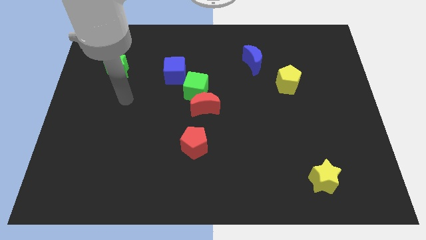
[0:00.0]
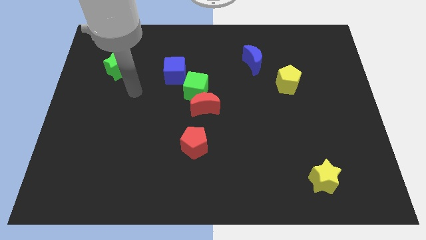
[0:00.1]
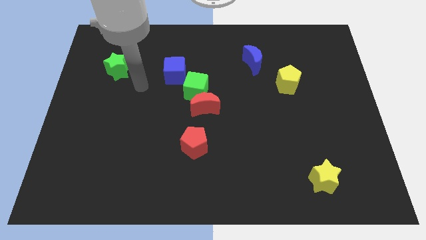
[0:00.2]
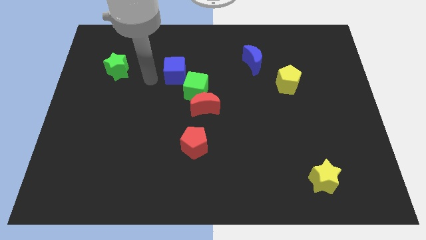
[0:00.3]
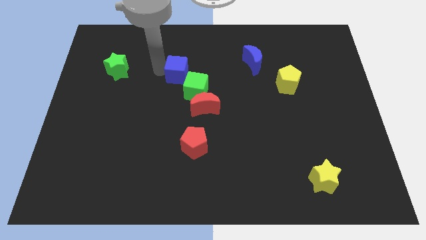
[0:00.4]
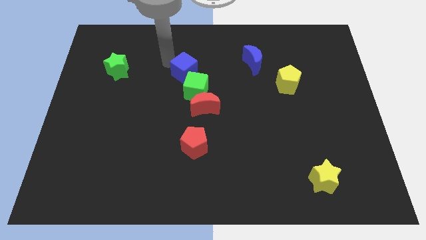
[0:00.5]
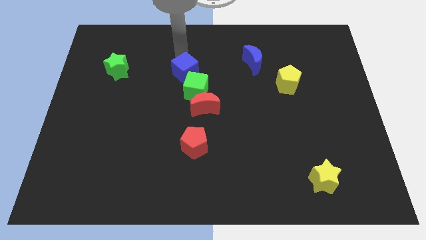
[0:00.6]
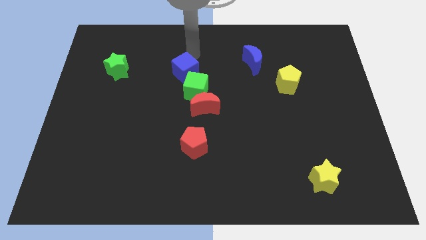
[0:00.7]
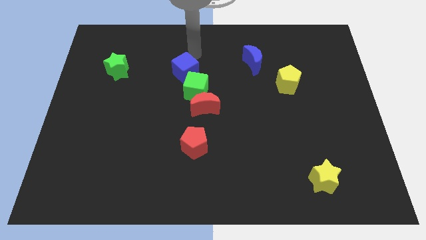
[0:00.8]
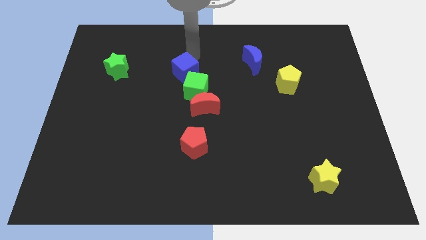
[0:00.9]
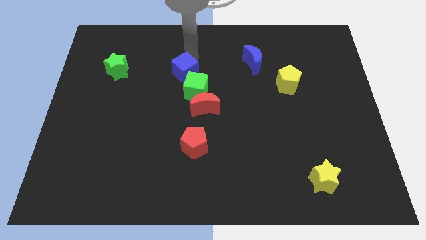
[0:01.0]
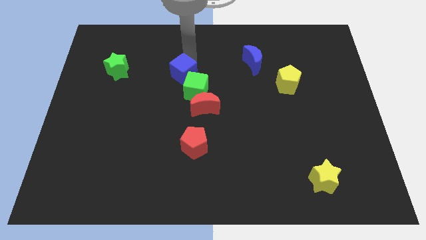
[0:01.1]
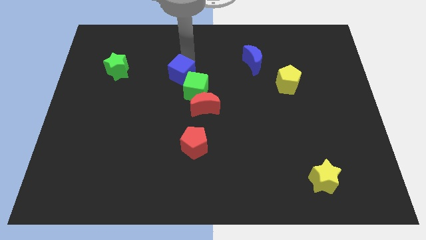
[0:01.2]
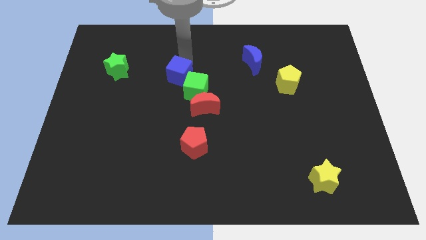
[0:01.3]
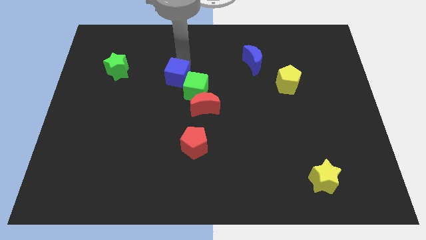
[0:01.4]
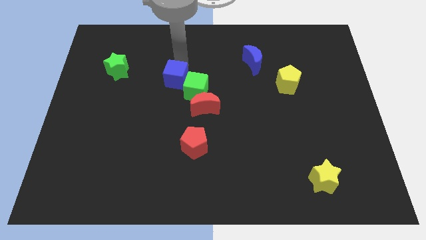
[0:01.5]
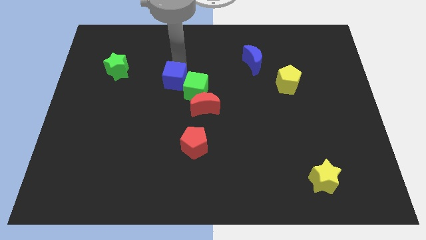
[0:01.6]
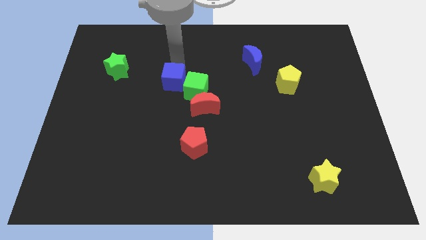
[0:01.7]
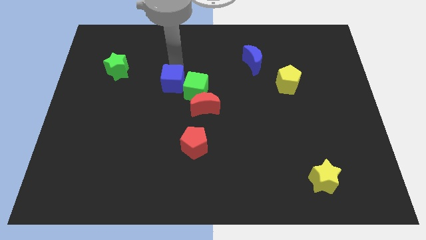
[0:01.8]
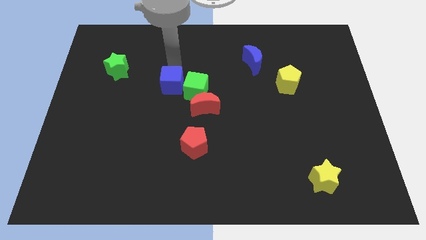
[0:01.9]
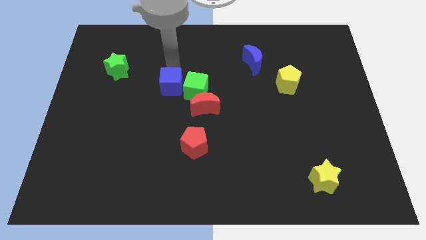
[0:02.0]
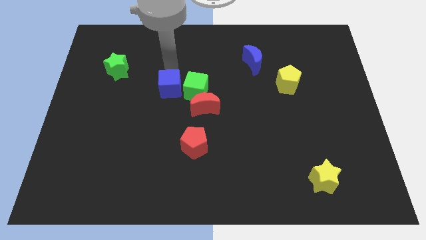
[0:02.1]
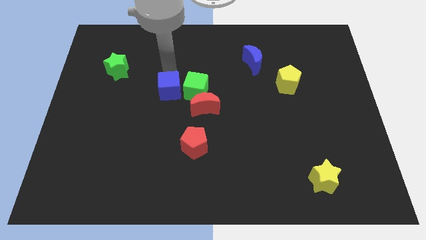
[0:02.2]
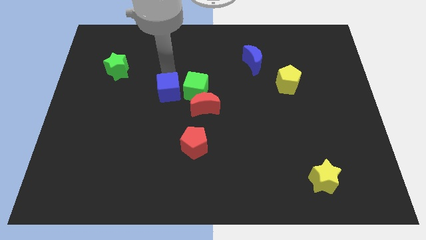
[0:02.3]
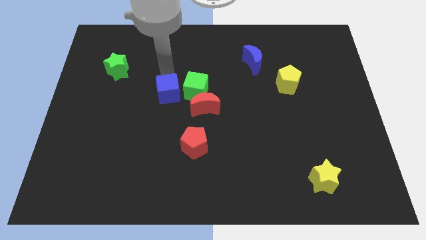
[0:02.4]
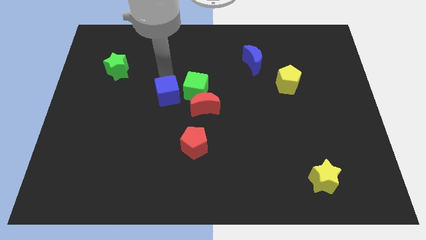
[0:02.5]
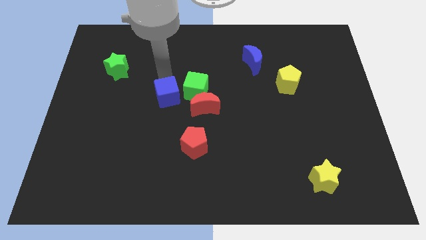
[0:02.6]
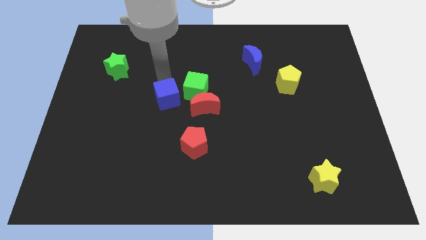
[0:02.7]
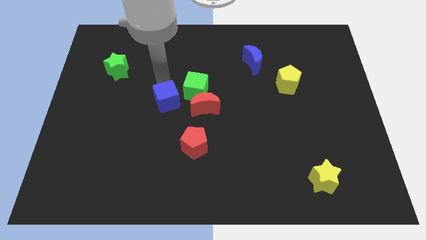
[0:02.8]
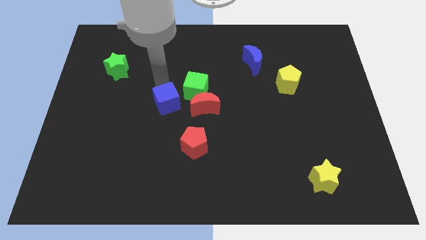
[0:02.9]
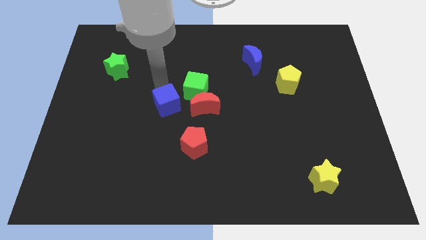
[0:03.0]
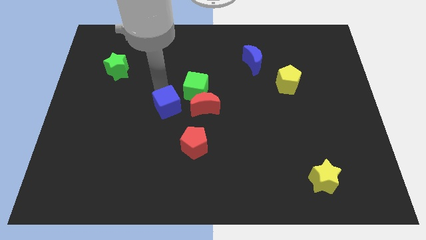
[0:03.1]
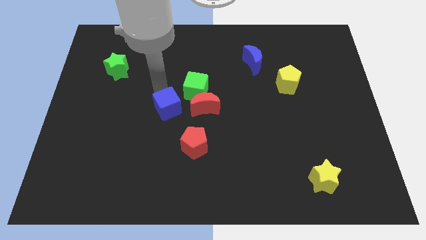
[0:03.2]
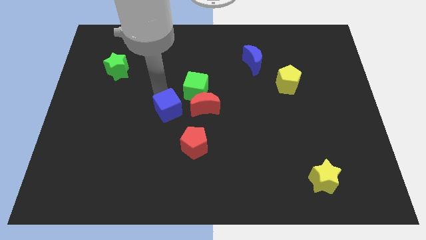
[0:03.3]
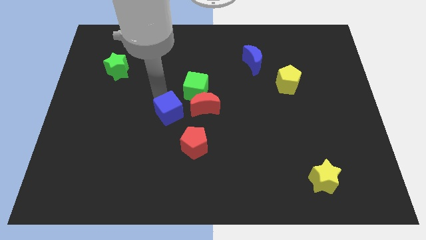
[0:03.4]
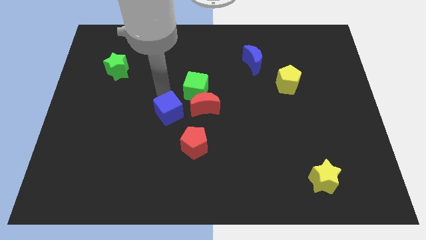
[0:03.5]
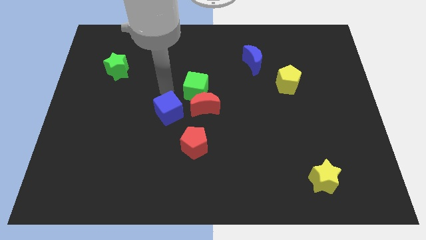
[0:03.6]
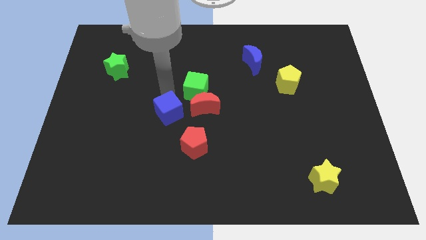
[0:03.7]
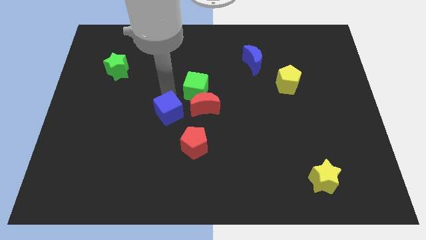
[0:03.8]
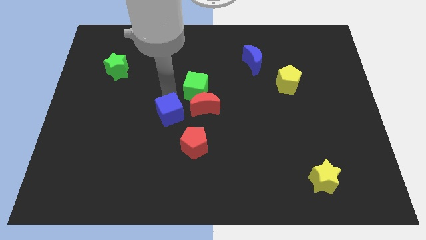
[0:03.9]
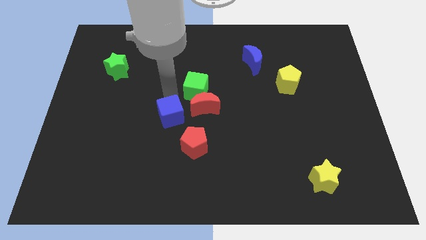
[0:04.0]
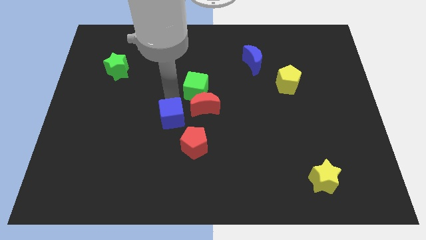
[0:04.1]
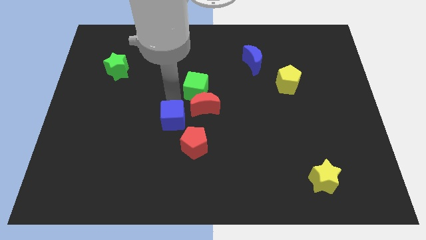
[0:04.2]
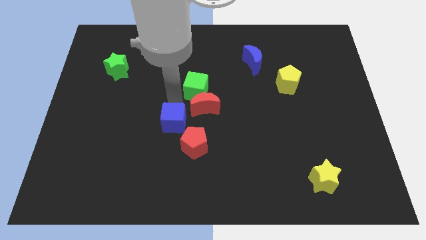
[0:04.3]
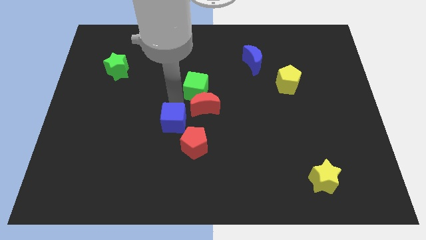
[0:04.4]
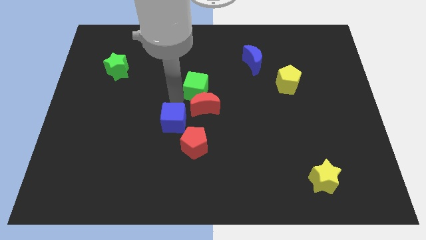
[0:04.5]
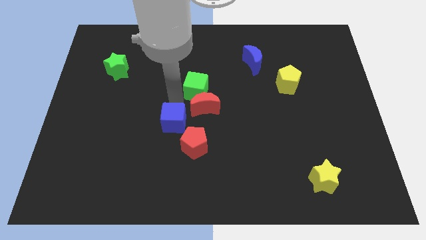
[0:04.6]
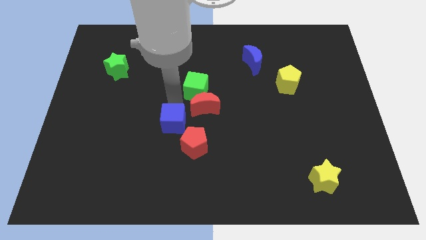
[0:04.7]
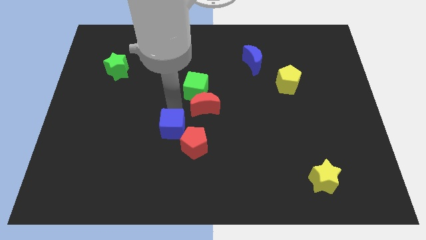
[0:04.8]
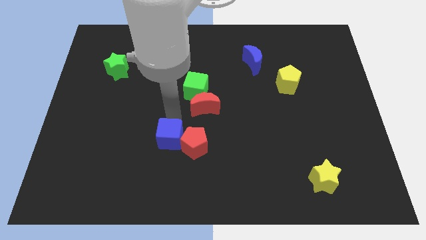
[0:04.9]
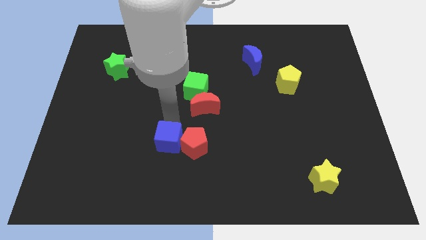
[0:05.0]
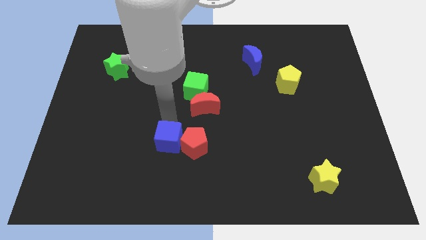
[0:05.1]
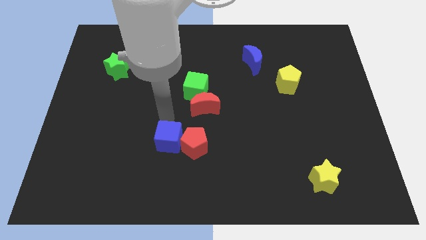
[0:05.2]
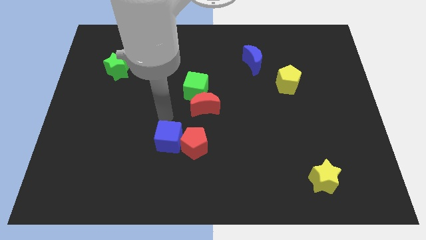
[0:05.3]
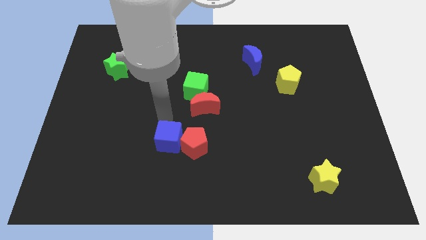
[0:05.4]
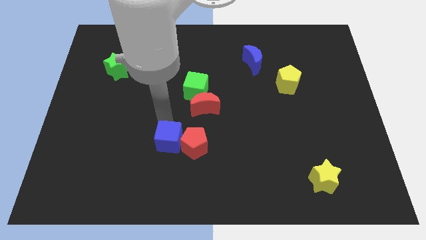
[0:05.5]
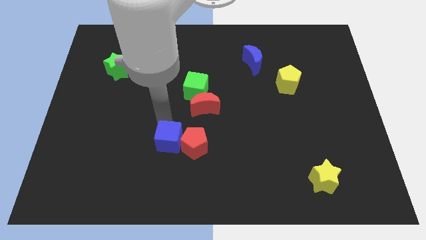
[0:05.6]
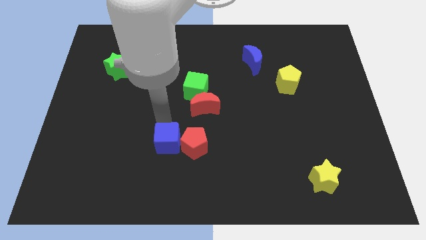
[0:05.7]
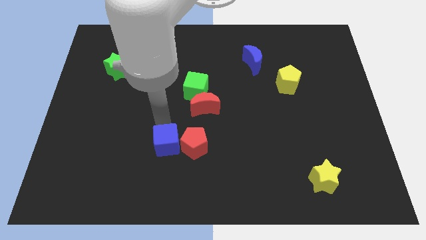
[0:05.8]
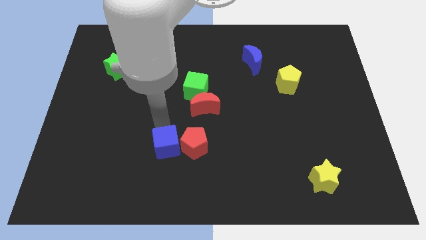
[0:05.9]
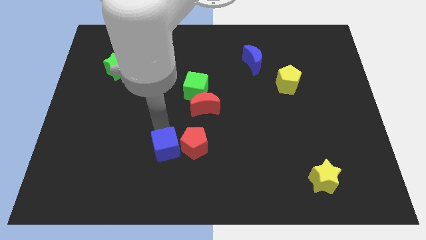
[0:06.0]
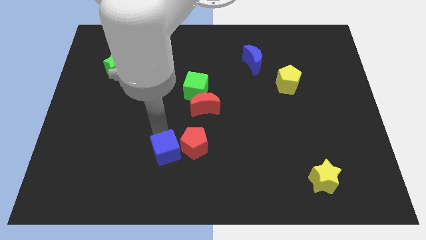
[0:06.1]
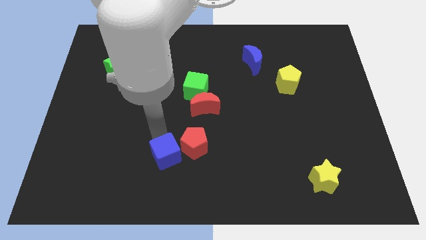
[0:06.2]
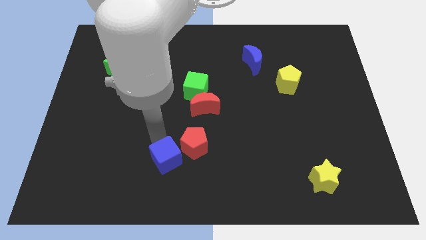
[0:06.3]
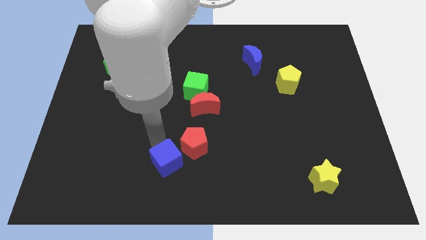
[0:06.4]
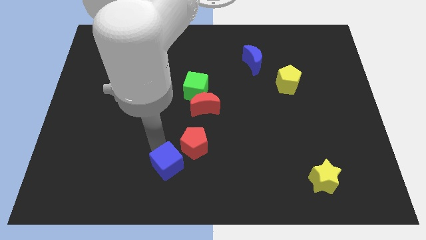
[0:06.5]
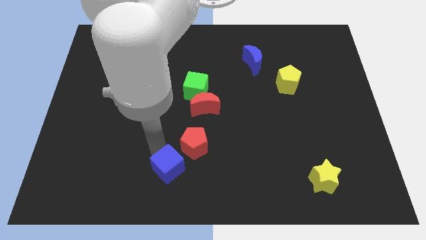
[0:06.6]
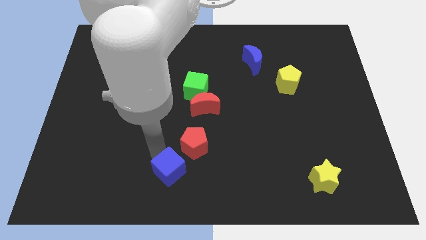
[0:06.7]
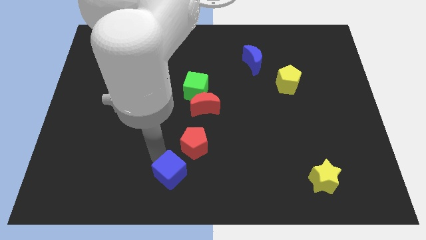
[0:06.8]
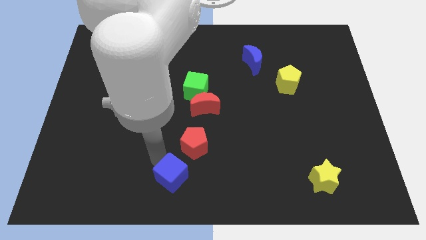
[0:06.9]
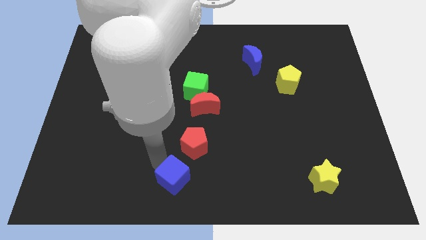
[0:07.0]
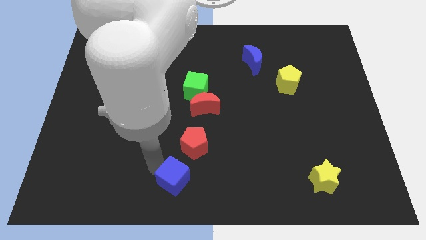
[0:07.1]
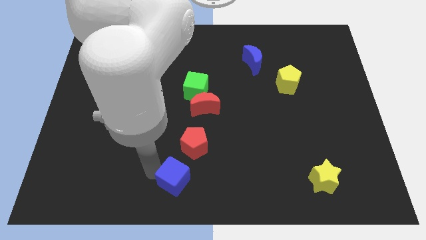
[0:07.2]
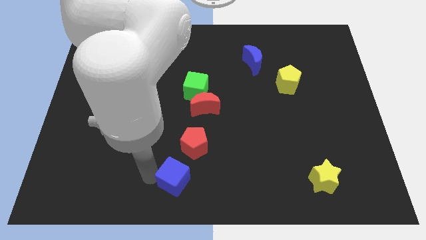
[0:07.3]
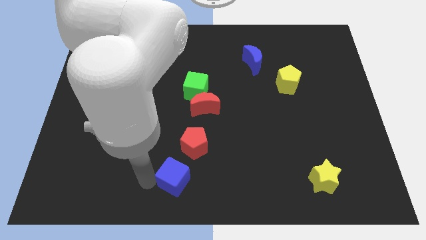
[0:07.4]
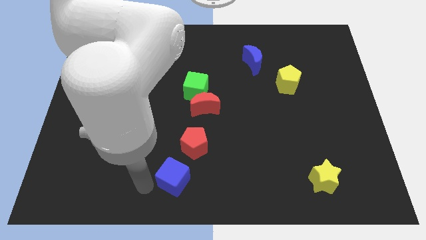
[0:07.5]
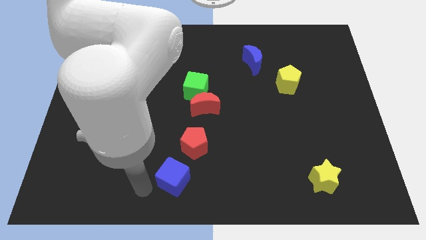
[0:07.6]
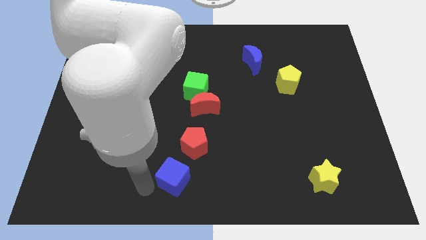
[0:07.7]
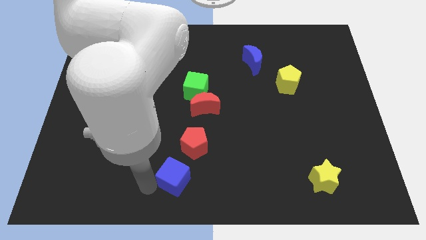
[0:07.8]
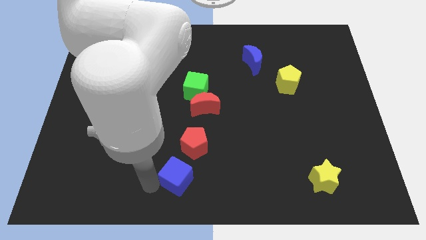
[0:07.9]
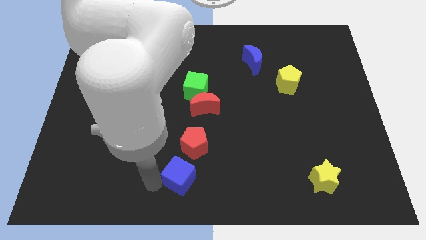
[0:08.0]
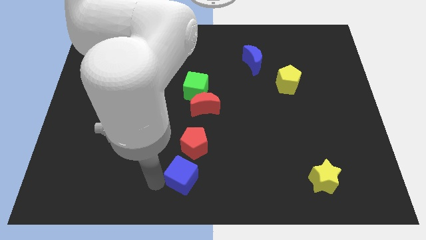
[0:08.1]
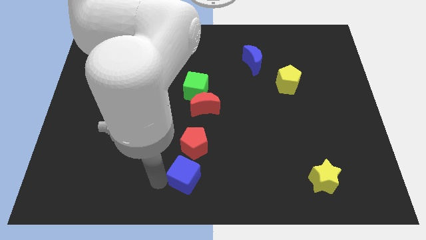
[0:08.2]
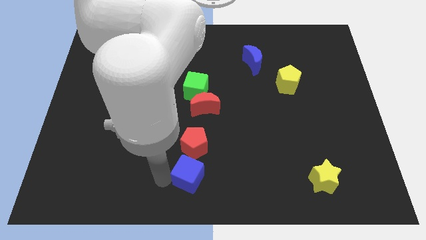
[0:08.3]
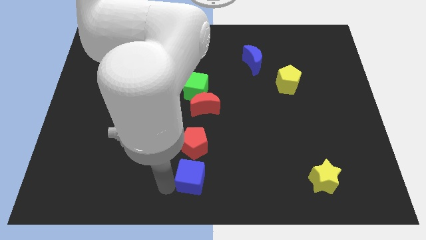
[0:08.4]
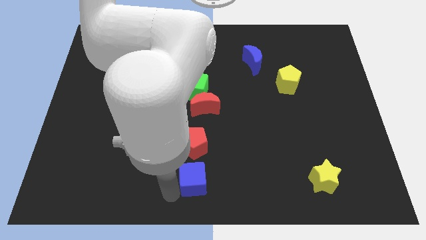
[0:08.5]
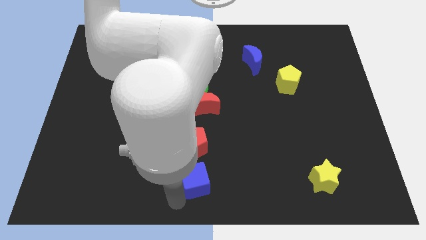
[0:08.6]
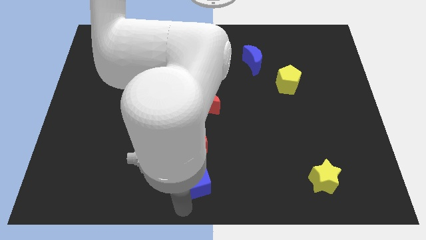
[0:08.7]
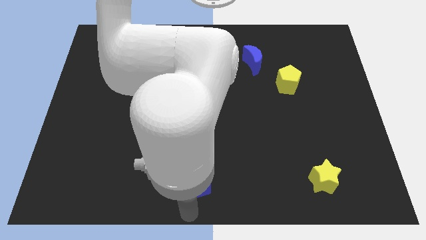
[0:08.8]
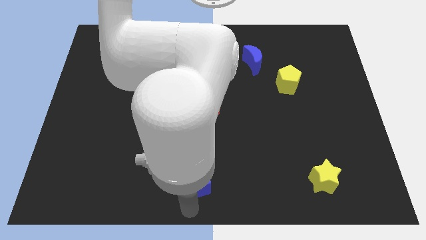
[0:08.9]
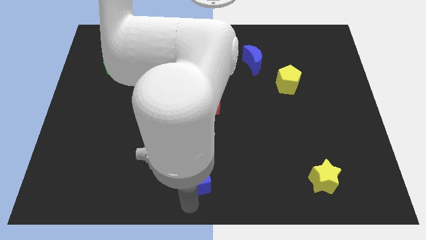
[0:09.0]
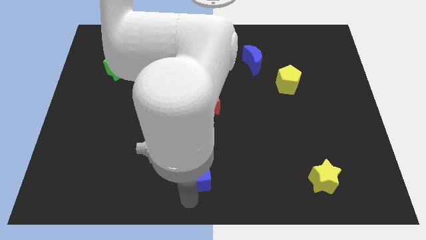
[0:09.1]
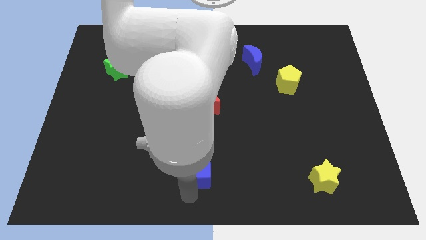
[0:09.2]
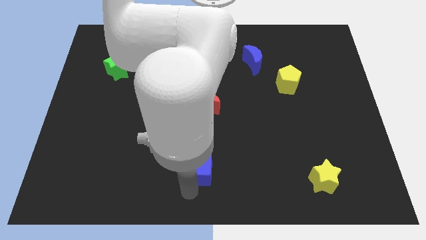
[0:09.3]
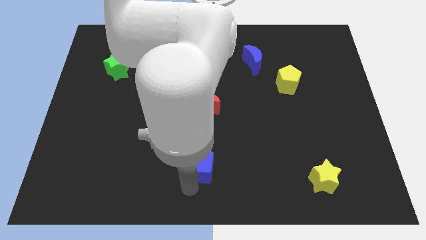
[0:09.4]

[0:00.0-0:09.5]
slide the blue cube to the bottom side of the red moon
